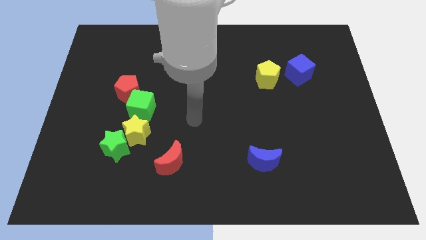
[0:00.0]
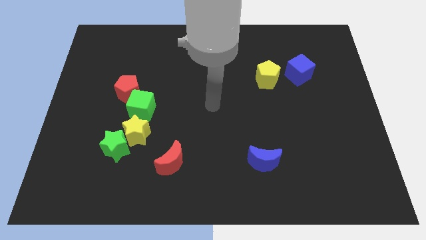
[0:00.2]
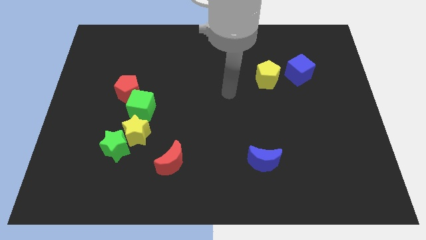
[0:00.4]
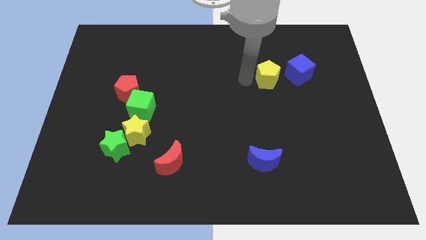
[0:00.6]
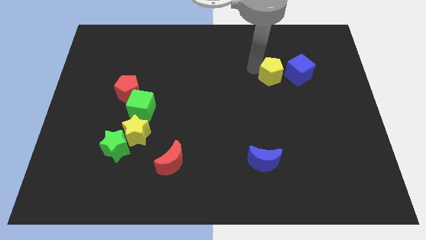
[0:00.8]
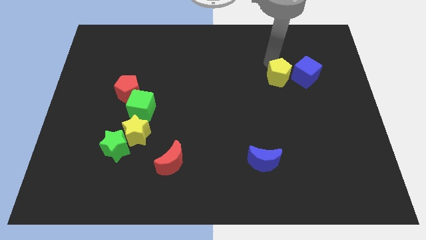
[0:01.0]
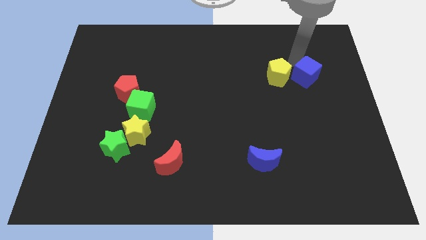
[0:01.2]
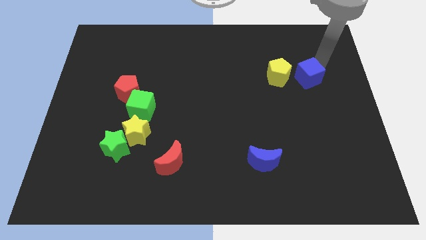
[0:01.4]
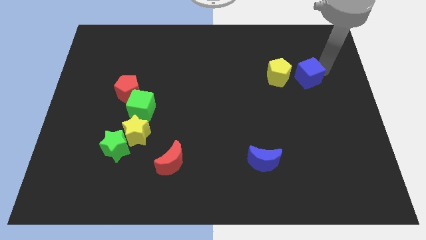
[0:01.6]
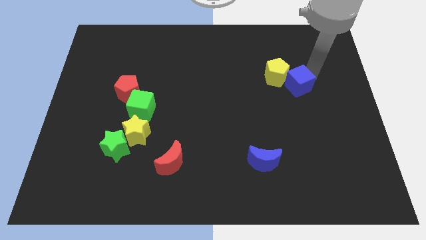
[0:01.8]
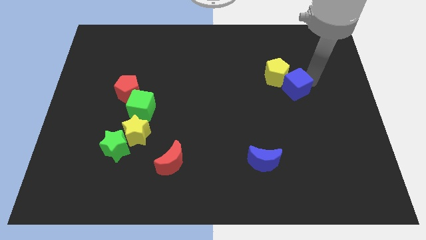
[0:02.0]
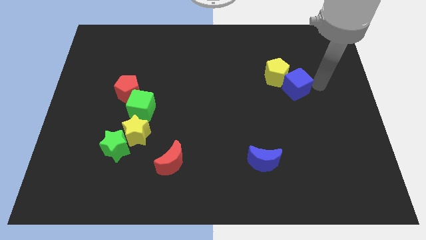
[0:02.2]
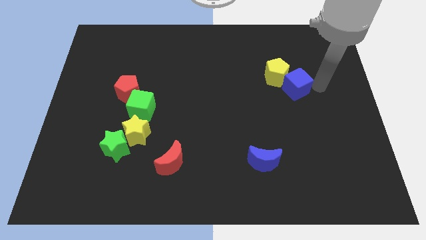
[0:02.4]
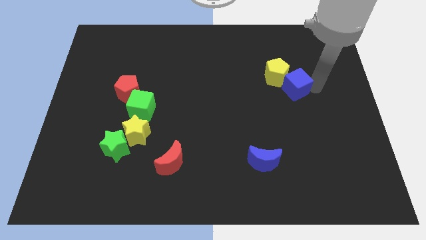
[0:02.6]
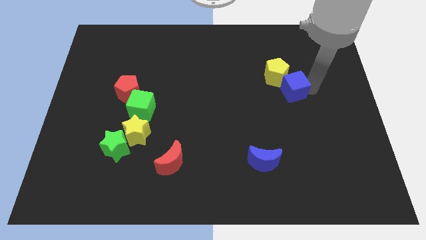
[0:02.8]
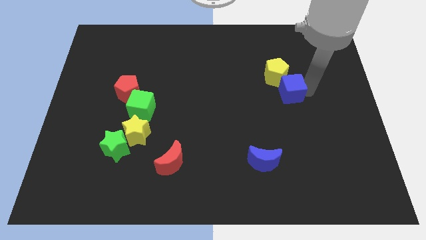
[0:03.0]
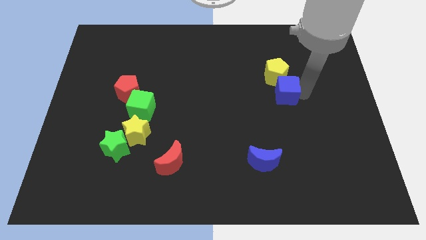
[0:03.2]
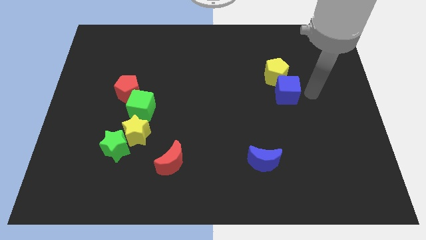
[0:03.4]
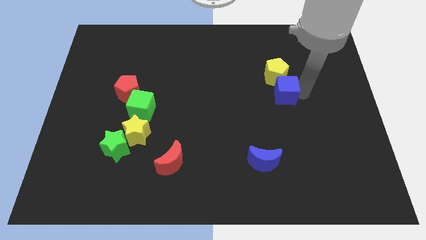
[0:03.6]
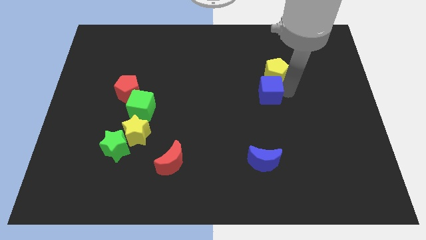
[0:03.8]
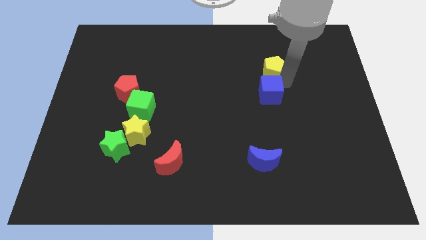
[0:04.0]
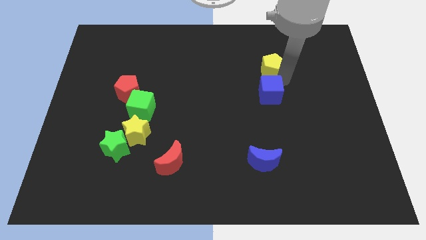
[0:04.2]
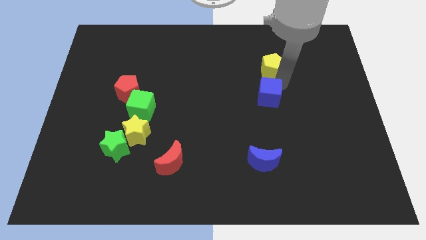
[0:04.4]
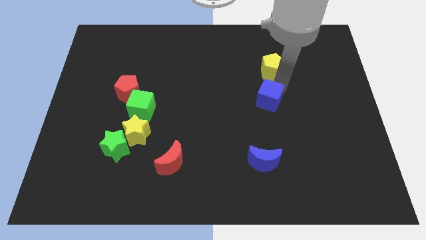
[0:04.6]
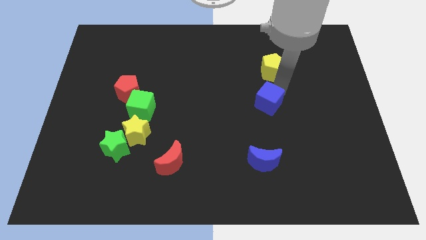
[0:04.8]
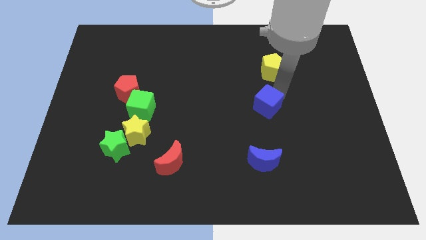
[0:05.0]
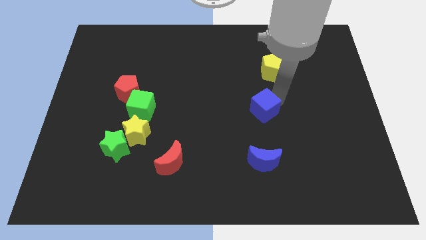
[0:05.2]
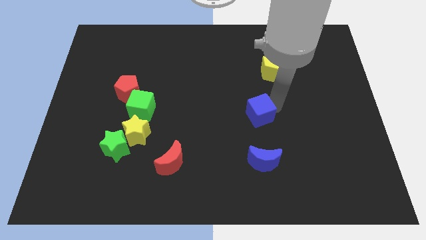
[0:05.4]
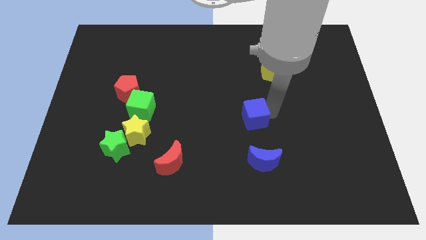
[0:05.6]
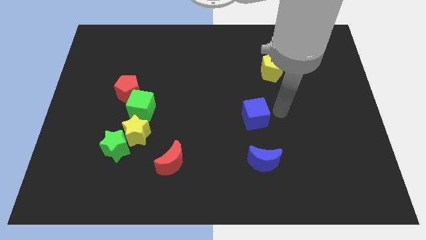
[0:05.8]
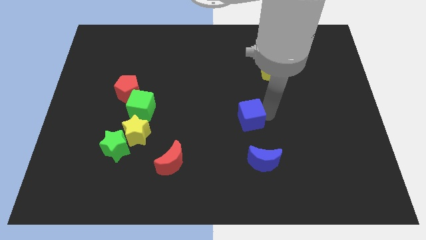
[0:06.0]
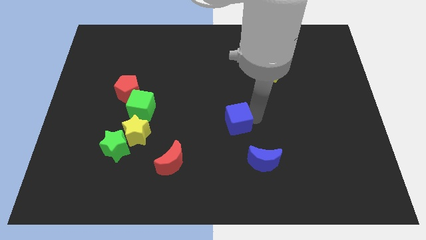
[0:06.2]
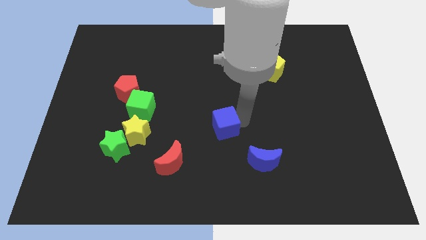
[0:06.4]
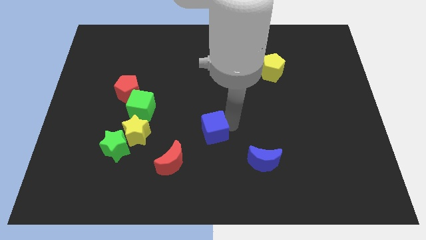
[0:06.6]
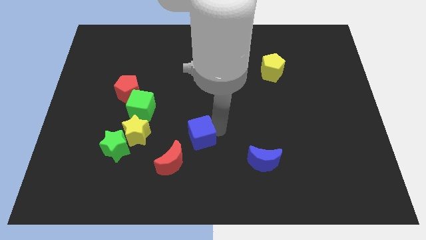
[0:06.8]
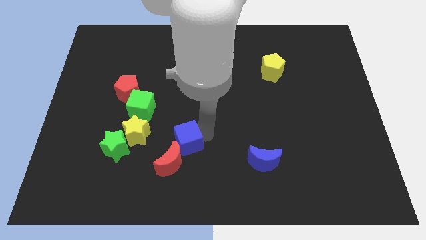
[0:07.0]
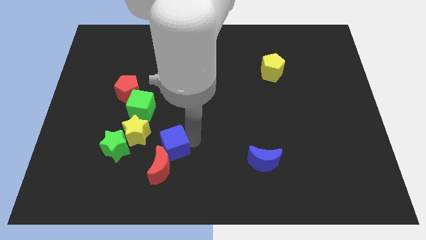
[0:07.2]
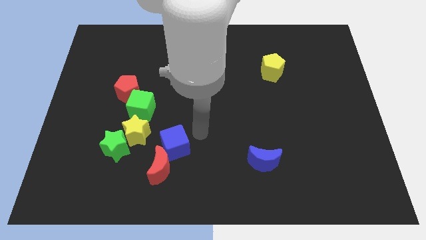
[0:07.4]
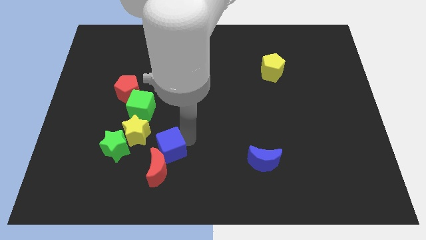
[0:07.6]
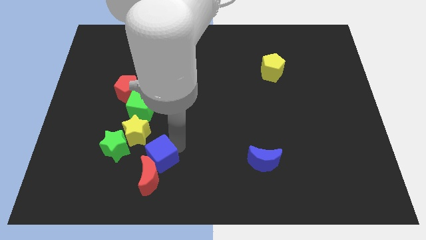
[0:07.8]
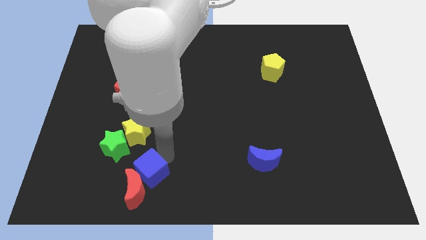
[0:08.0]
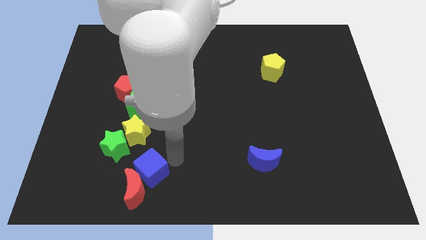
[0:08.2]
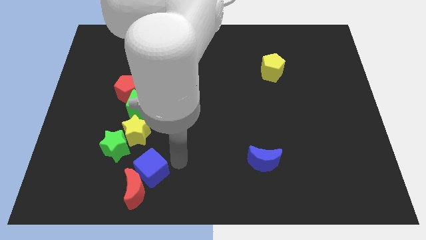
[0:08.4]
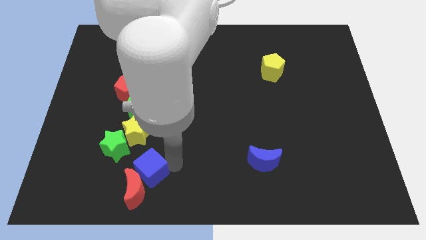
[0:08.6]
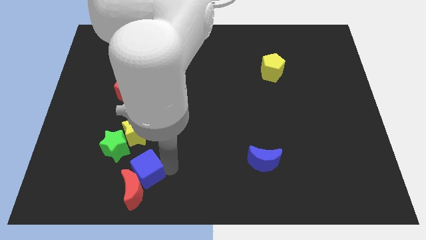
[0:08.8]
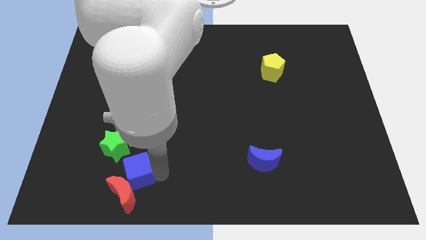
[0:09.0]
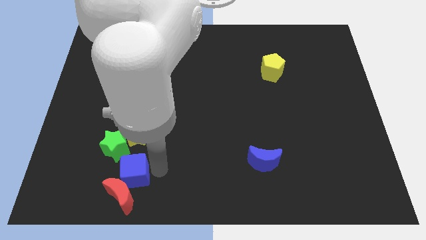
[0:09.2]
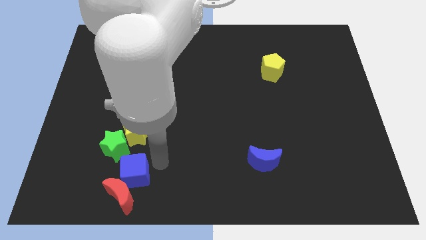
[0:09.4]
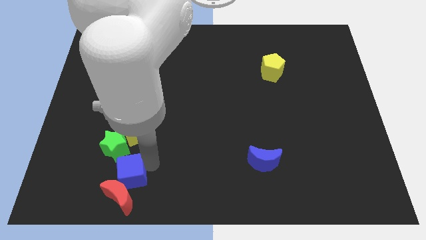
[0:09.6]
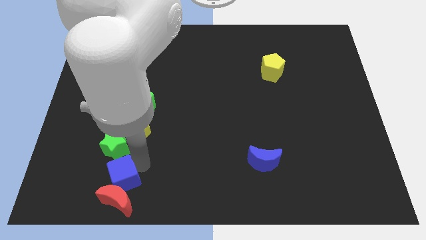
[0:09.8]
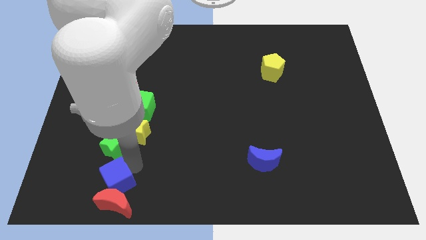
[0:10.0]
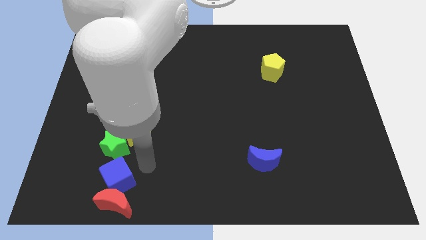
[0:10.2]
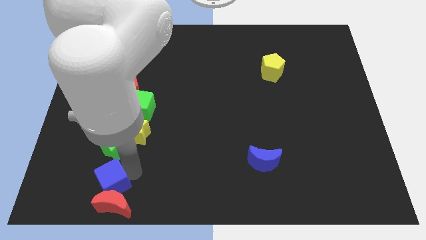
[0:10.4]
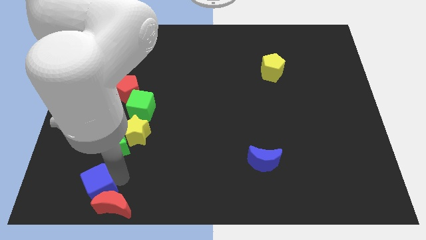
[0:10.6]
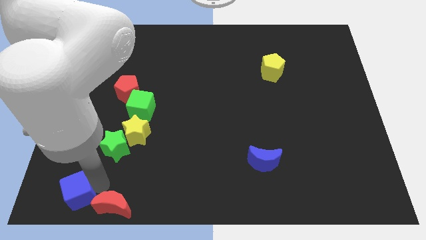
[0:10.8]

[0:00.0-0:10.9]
move the blue cube to the bottom left corner

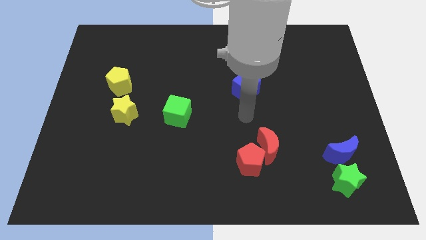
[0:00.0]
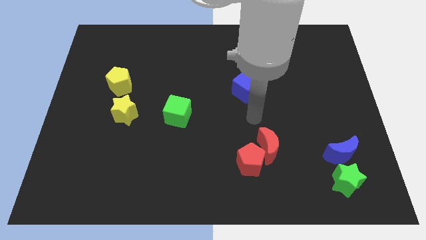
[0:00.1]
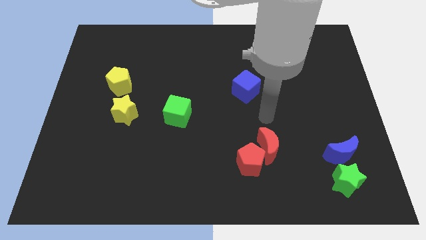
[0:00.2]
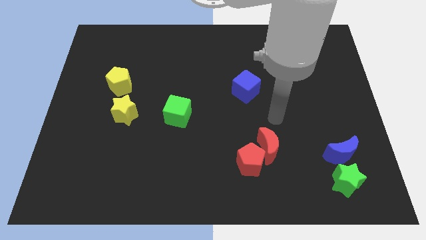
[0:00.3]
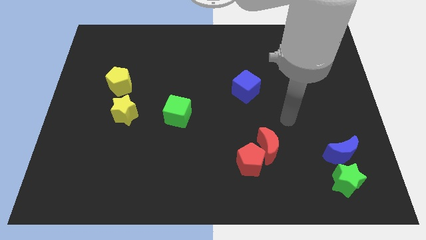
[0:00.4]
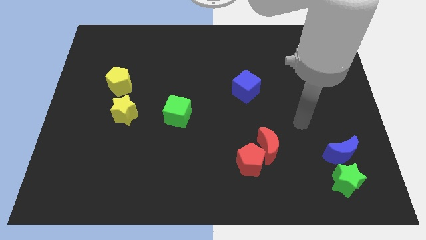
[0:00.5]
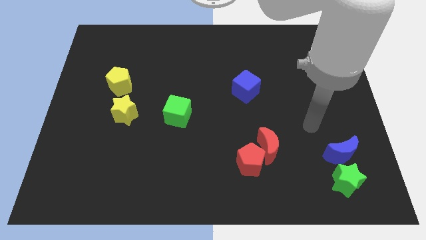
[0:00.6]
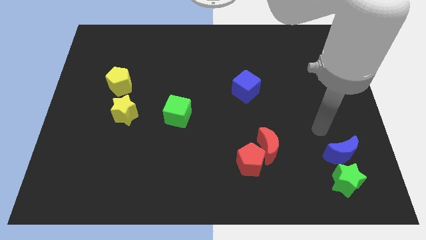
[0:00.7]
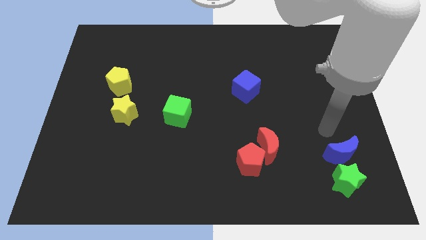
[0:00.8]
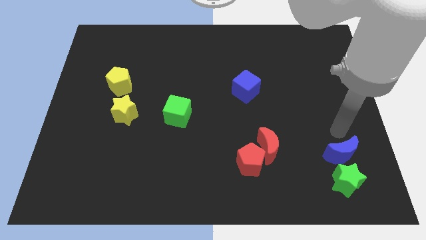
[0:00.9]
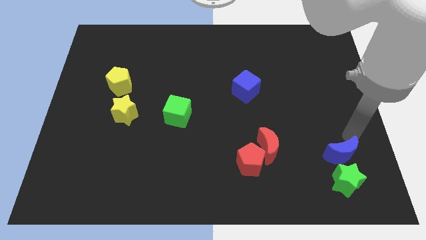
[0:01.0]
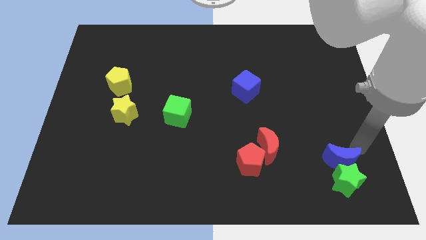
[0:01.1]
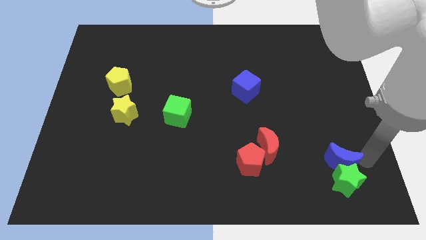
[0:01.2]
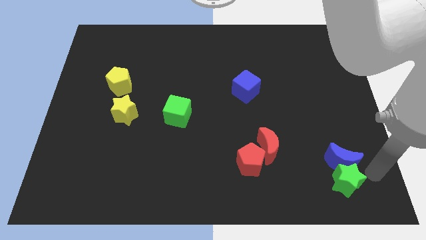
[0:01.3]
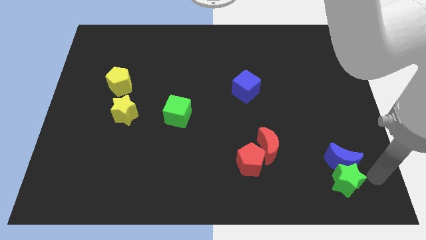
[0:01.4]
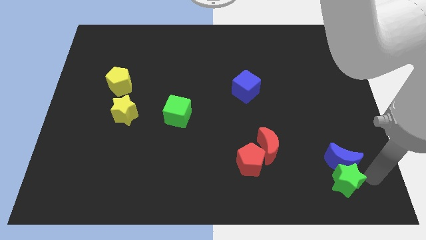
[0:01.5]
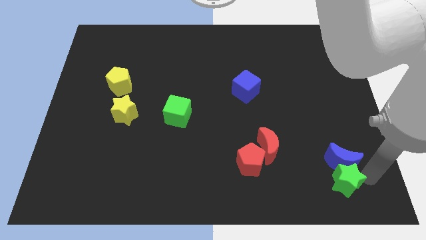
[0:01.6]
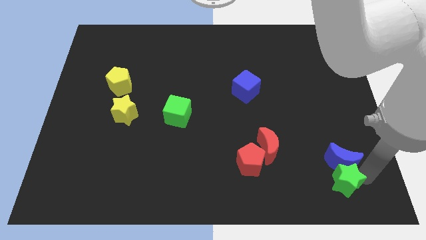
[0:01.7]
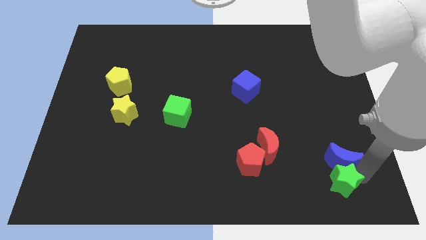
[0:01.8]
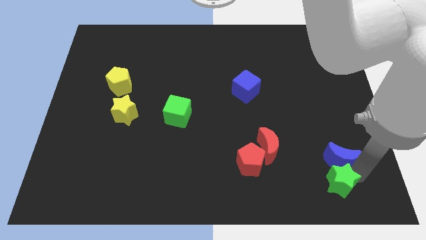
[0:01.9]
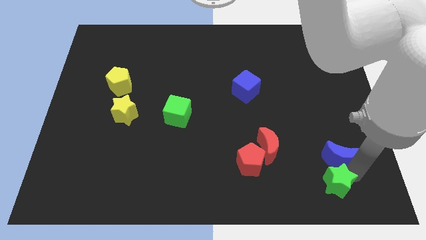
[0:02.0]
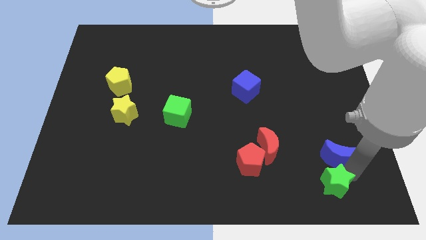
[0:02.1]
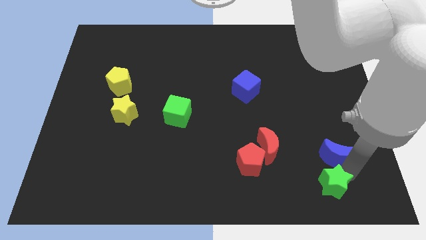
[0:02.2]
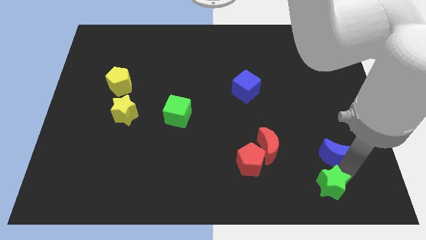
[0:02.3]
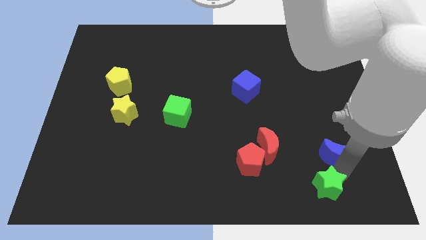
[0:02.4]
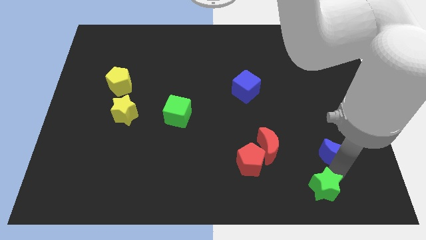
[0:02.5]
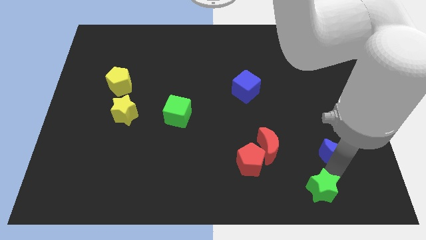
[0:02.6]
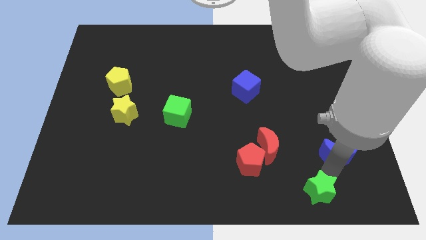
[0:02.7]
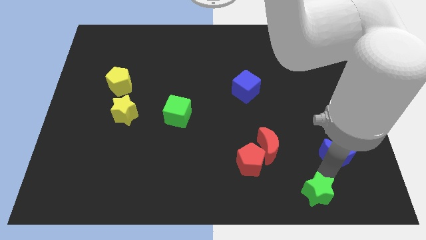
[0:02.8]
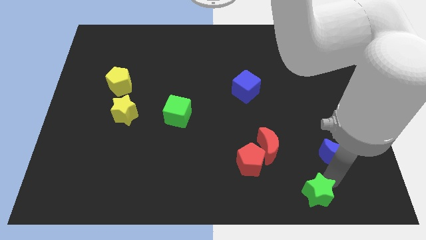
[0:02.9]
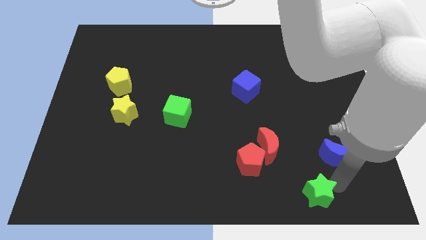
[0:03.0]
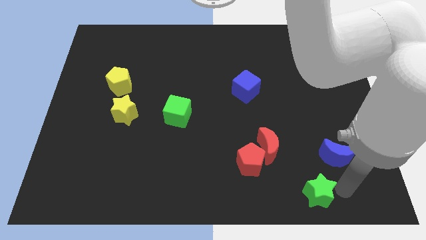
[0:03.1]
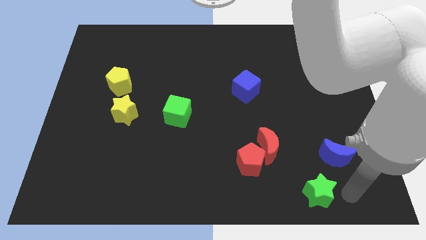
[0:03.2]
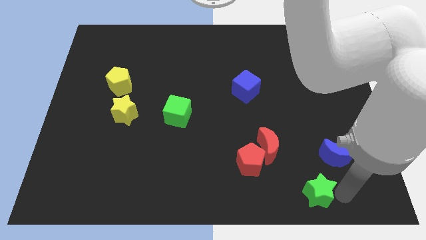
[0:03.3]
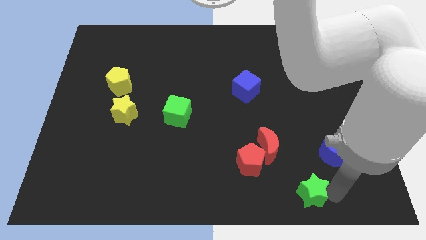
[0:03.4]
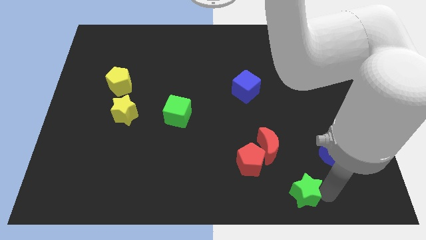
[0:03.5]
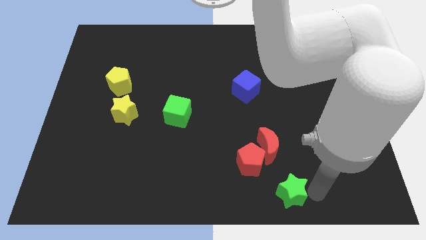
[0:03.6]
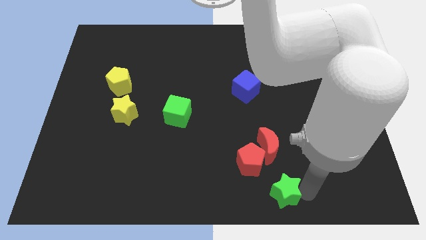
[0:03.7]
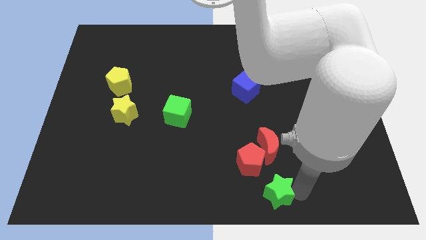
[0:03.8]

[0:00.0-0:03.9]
move the green star to the bottom
